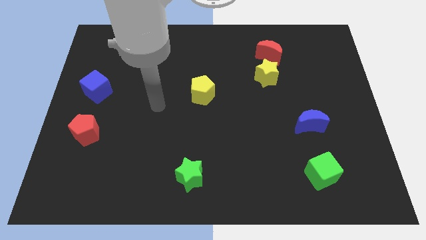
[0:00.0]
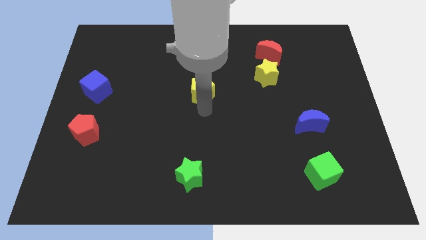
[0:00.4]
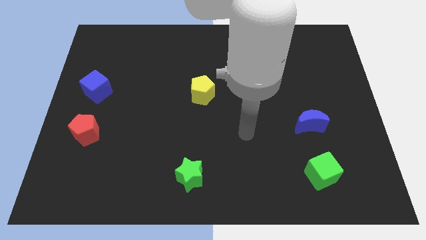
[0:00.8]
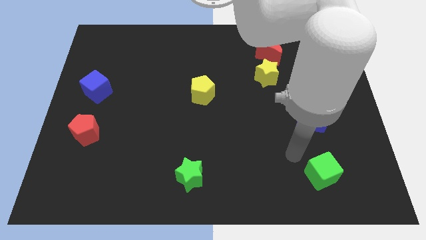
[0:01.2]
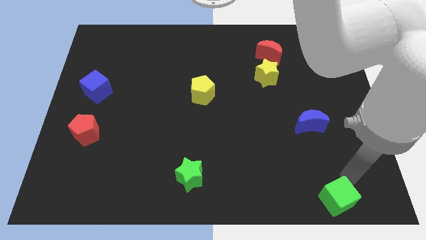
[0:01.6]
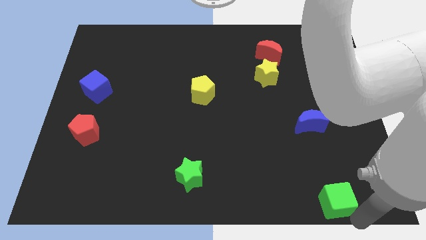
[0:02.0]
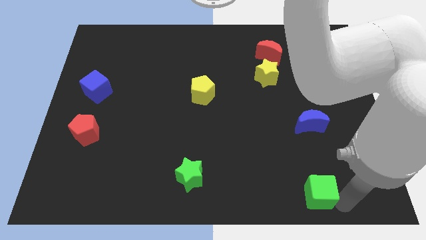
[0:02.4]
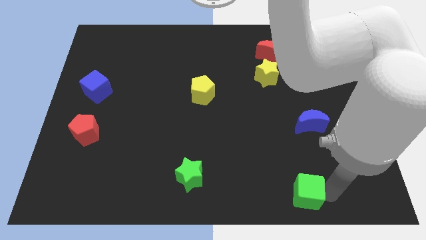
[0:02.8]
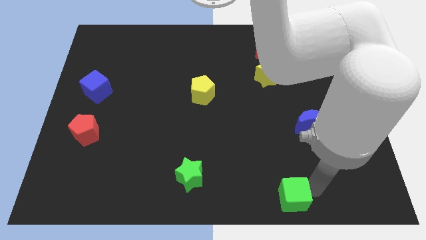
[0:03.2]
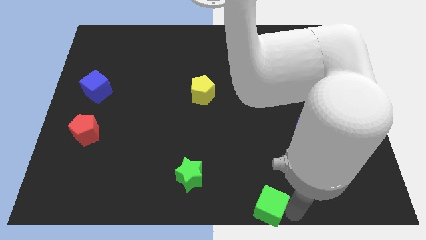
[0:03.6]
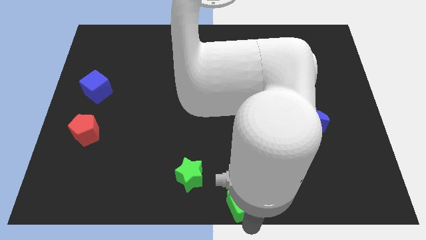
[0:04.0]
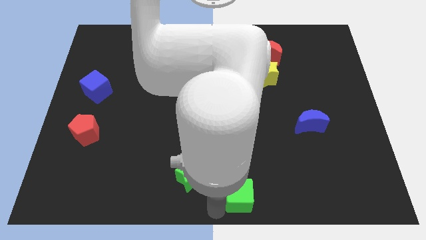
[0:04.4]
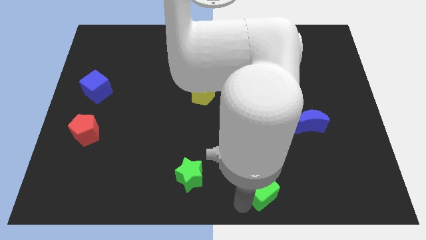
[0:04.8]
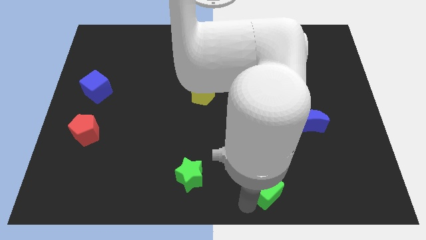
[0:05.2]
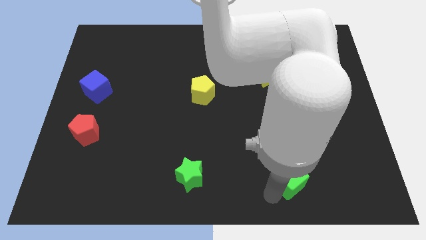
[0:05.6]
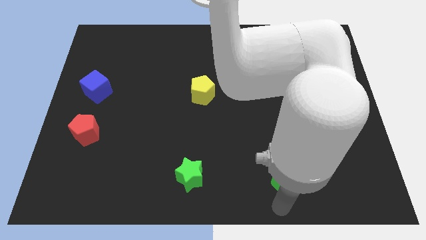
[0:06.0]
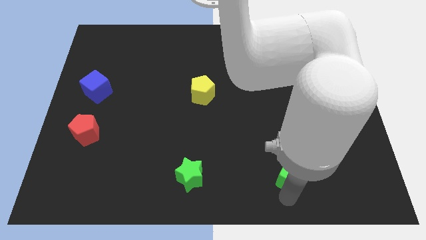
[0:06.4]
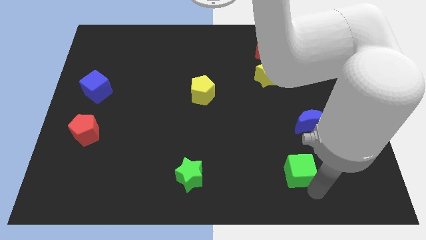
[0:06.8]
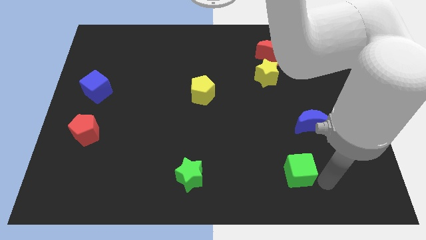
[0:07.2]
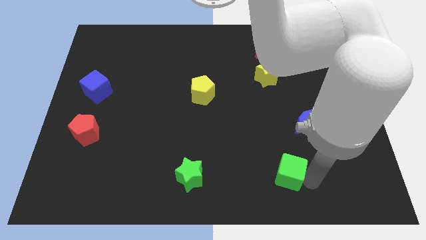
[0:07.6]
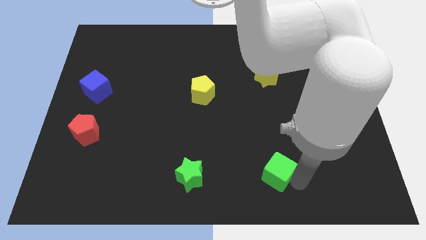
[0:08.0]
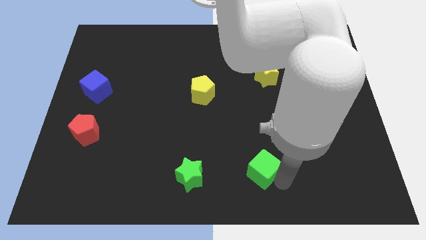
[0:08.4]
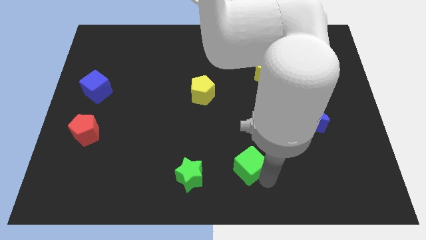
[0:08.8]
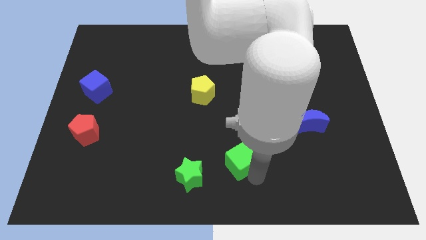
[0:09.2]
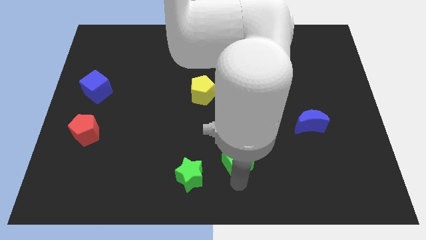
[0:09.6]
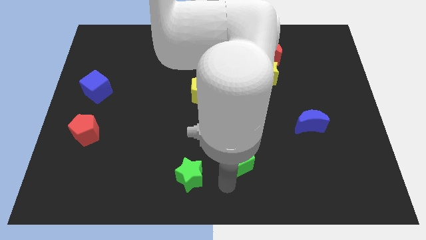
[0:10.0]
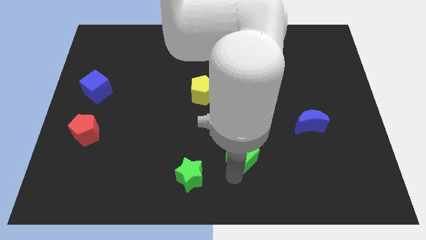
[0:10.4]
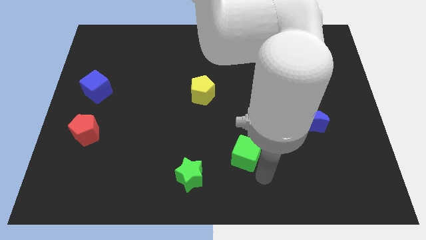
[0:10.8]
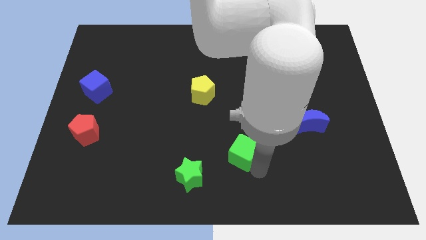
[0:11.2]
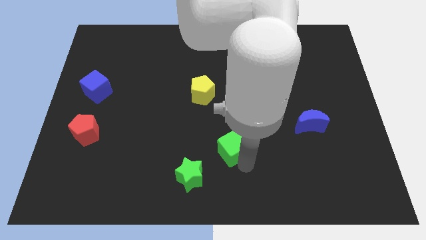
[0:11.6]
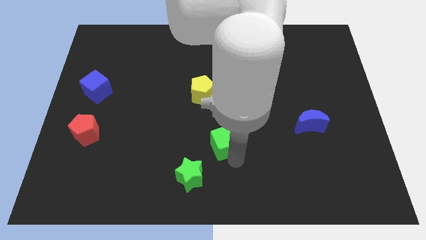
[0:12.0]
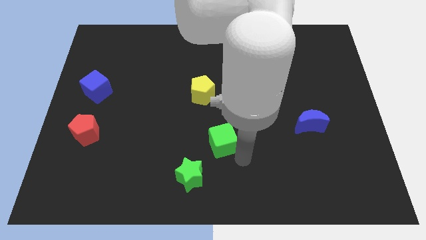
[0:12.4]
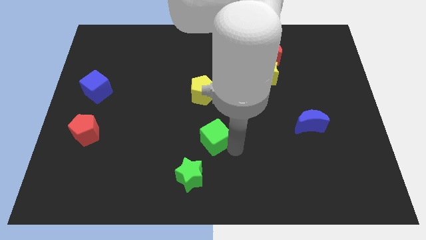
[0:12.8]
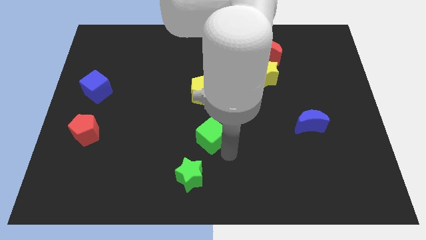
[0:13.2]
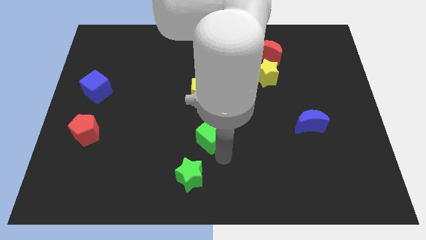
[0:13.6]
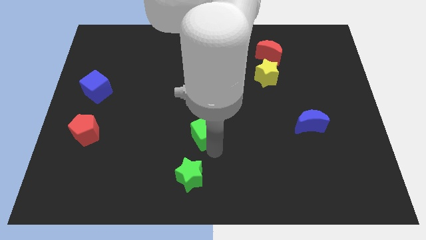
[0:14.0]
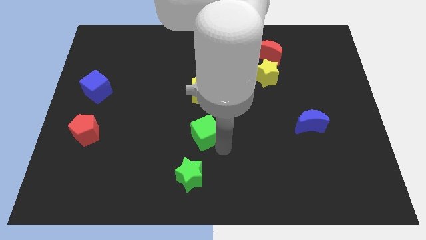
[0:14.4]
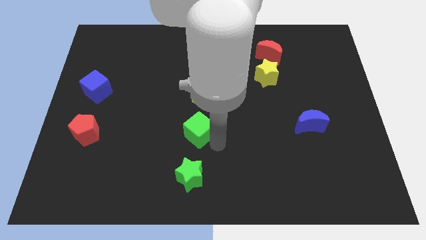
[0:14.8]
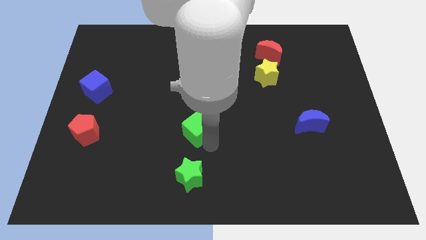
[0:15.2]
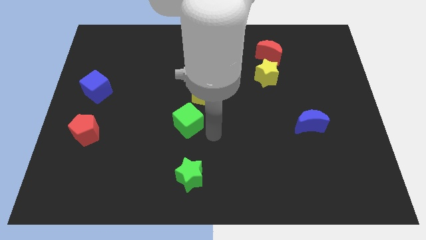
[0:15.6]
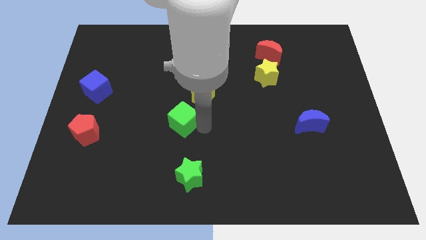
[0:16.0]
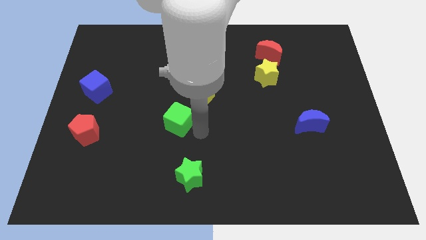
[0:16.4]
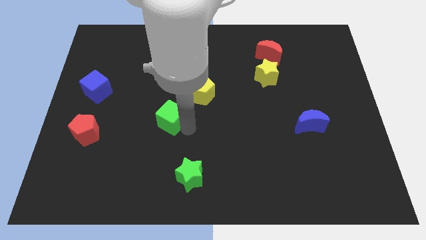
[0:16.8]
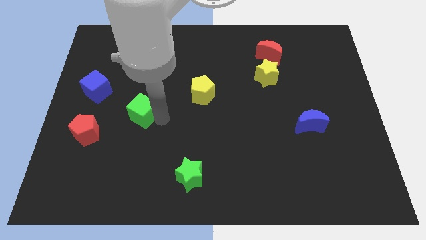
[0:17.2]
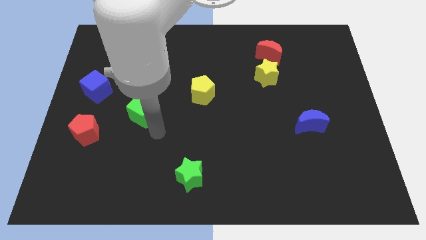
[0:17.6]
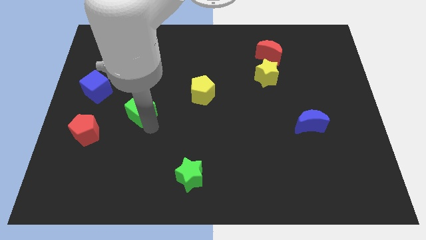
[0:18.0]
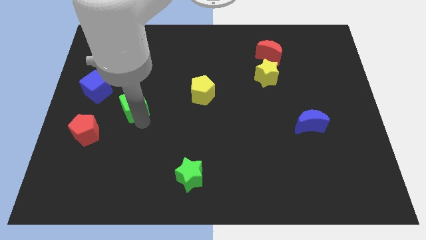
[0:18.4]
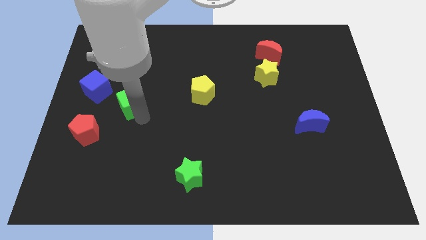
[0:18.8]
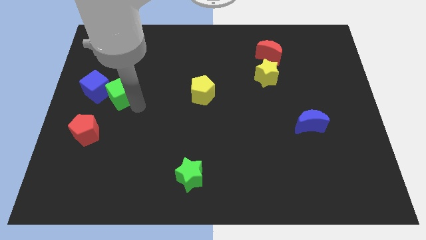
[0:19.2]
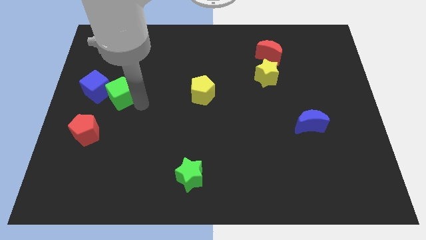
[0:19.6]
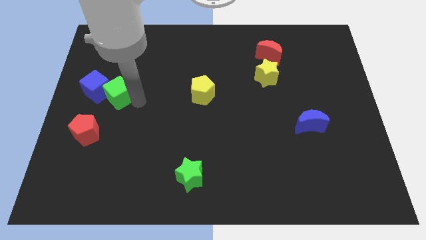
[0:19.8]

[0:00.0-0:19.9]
slide the green cube close to the blue cube

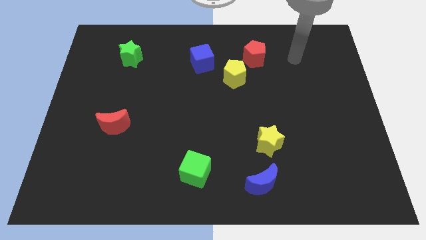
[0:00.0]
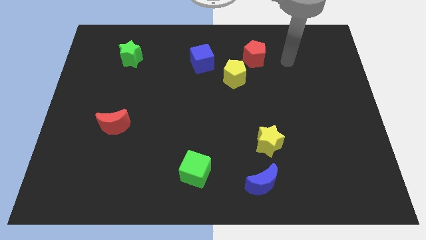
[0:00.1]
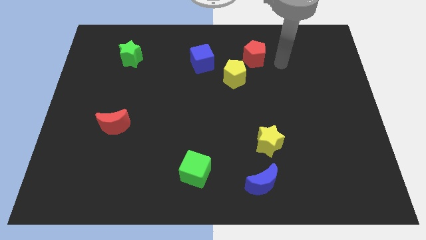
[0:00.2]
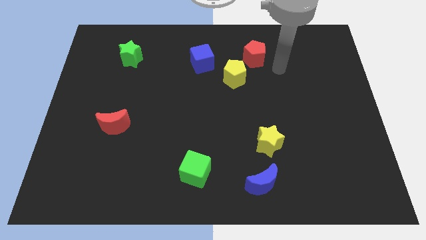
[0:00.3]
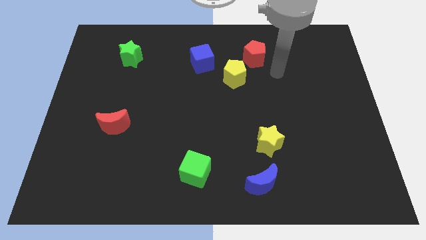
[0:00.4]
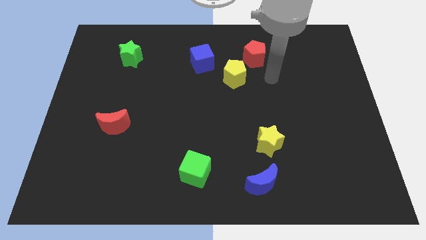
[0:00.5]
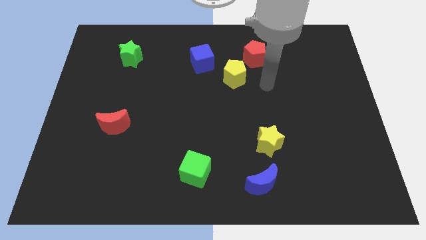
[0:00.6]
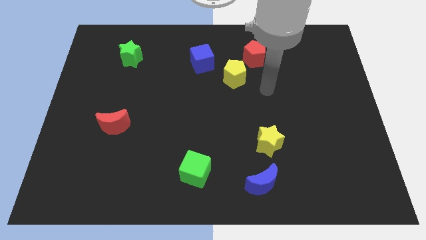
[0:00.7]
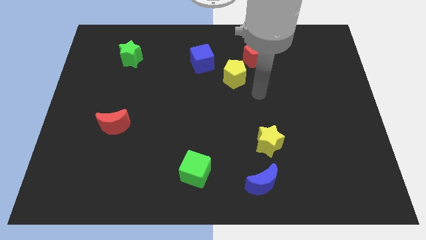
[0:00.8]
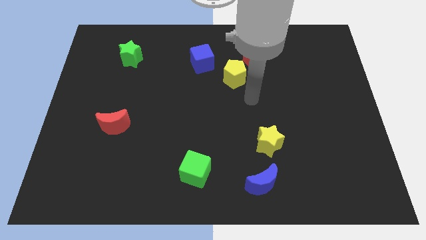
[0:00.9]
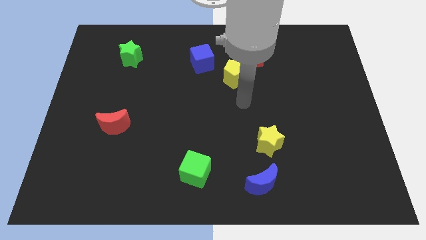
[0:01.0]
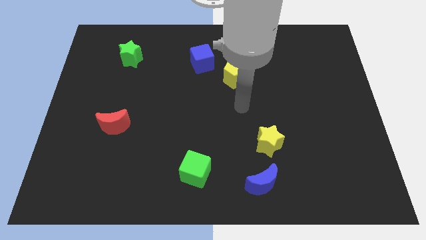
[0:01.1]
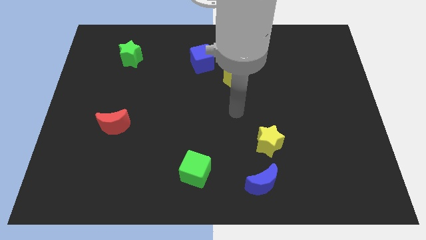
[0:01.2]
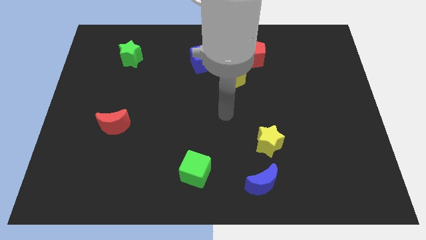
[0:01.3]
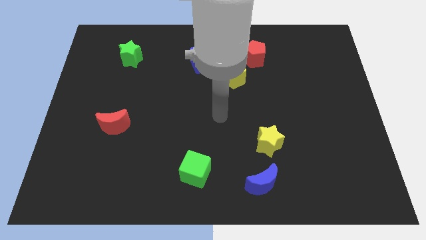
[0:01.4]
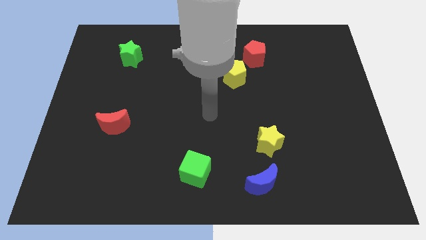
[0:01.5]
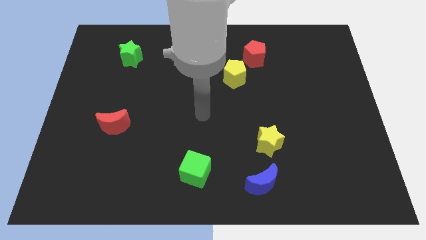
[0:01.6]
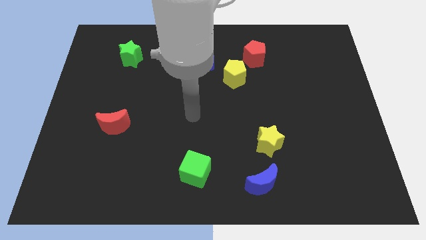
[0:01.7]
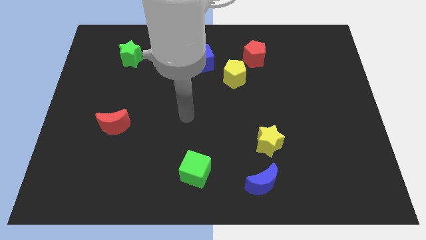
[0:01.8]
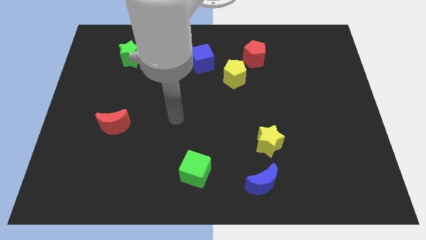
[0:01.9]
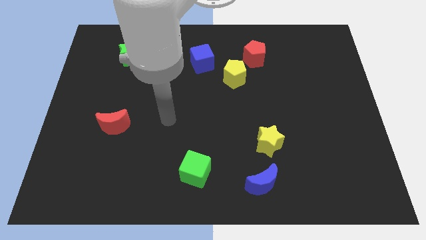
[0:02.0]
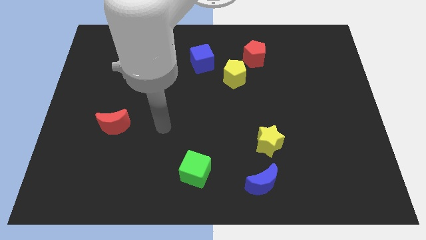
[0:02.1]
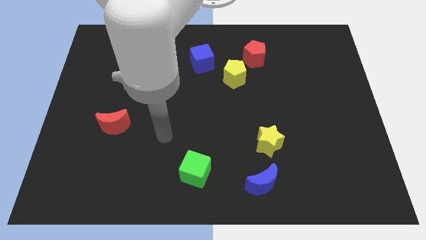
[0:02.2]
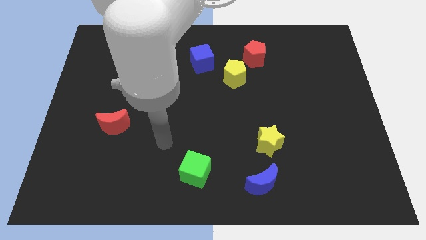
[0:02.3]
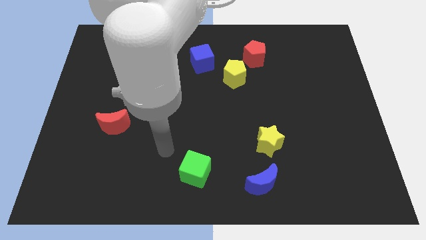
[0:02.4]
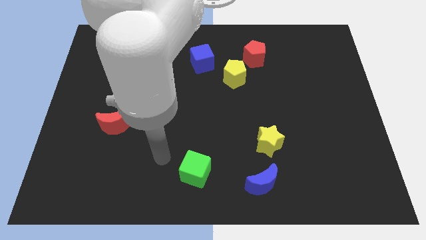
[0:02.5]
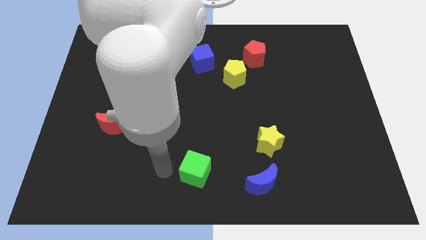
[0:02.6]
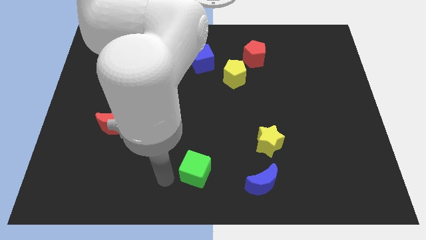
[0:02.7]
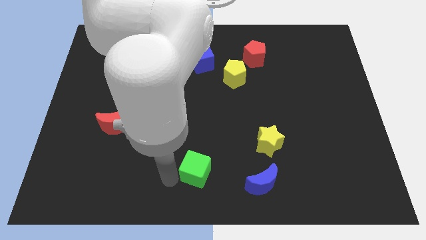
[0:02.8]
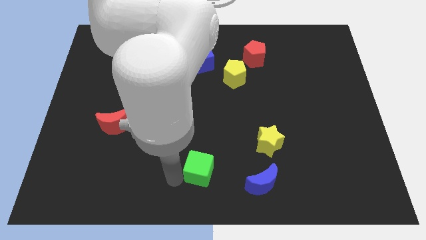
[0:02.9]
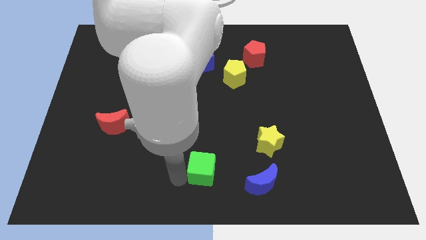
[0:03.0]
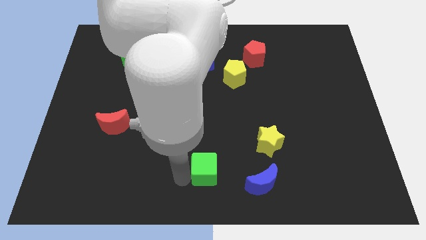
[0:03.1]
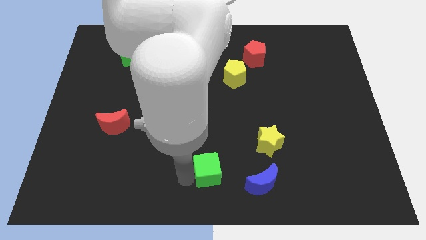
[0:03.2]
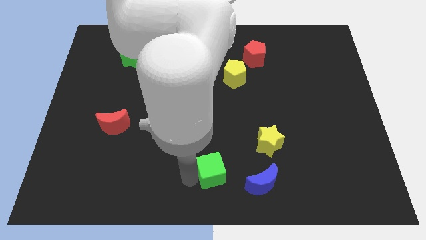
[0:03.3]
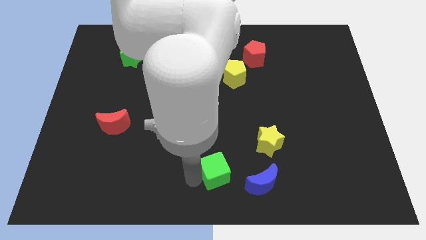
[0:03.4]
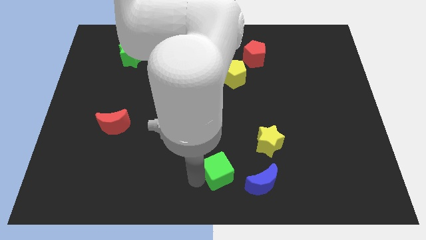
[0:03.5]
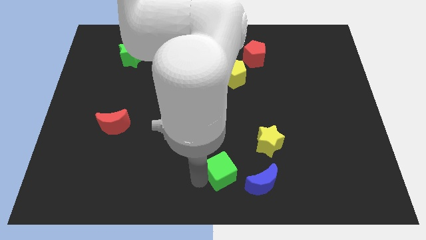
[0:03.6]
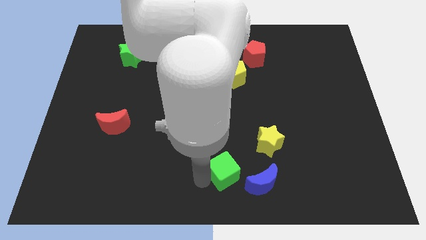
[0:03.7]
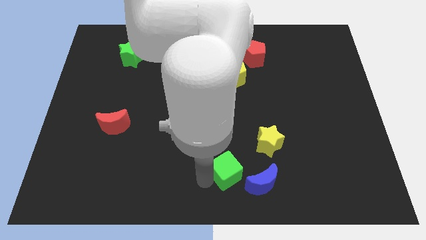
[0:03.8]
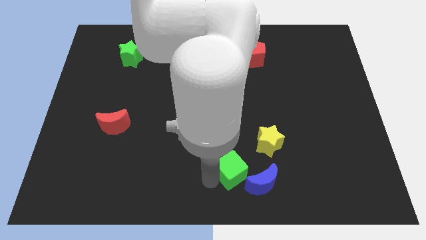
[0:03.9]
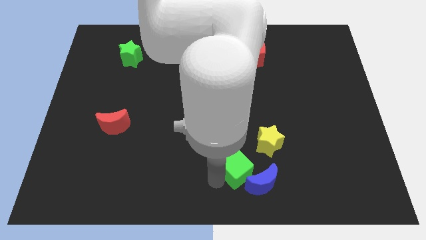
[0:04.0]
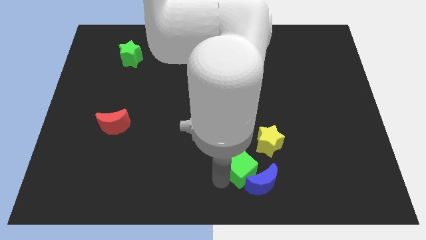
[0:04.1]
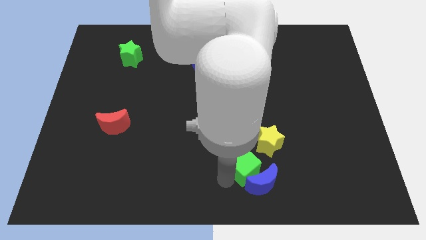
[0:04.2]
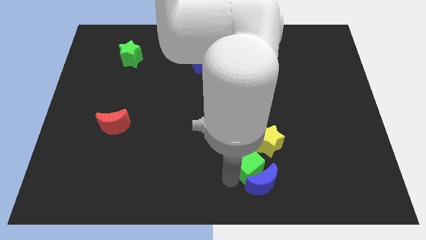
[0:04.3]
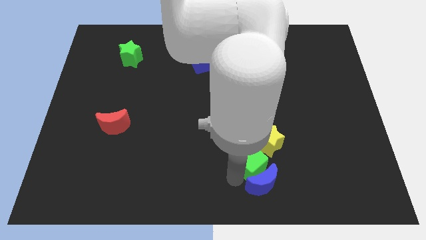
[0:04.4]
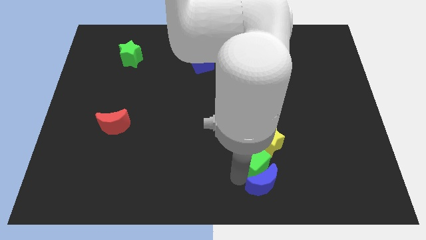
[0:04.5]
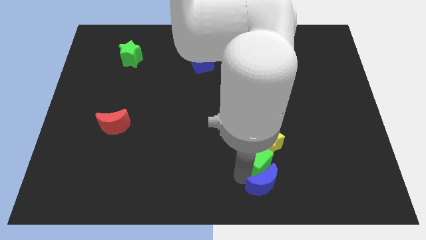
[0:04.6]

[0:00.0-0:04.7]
move the green cube towards the yellow star
